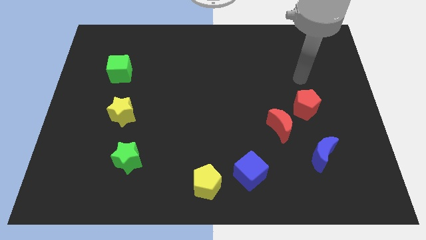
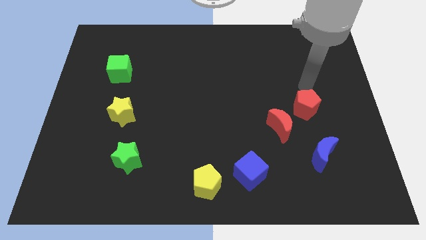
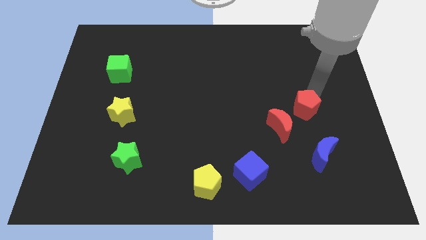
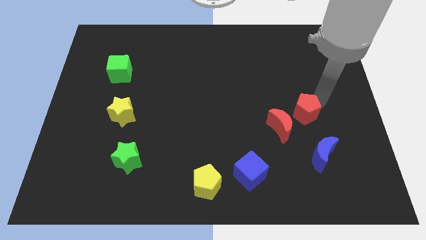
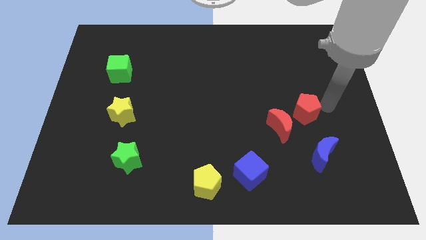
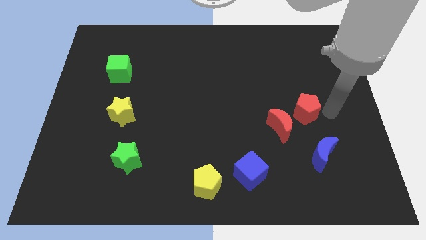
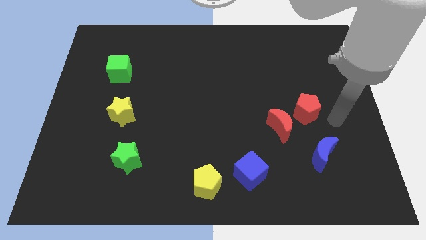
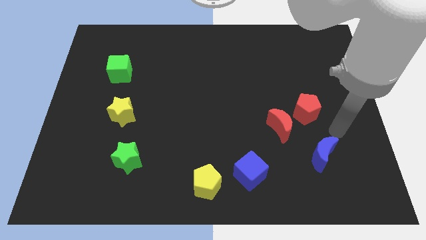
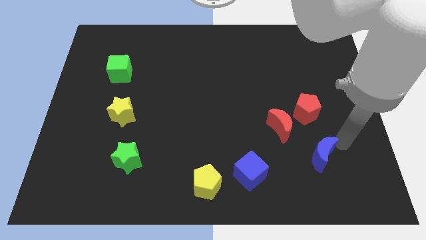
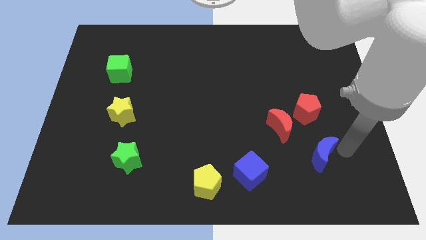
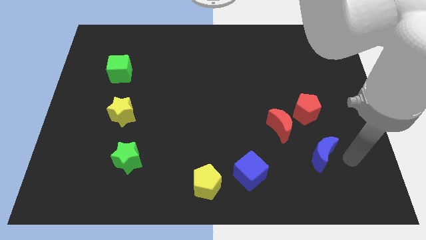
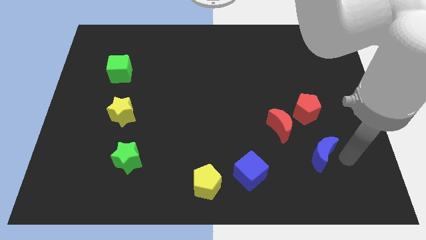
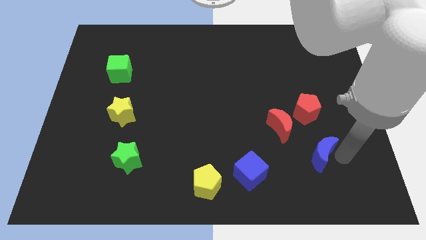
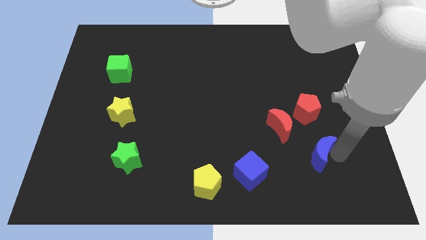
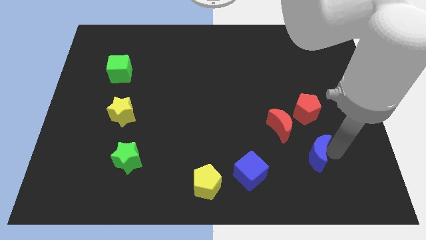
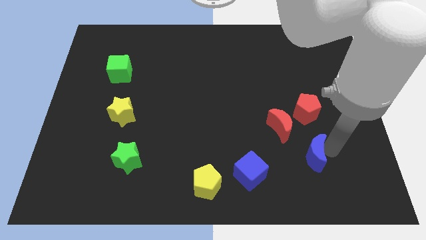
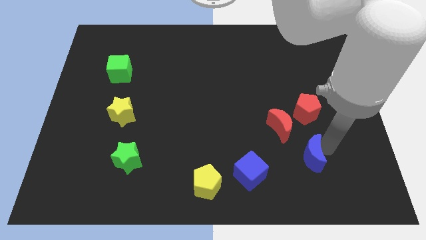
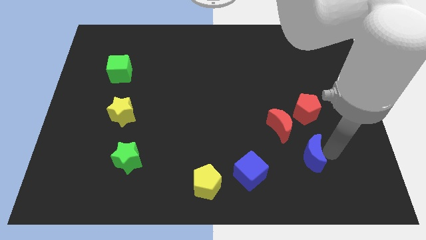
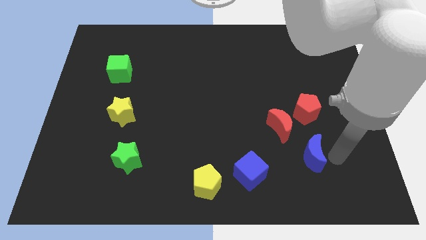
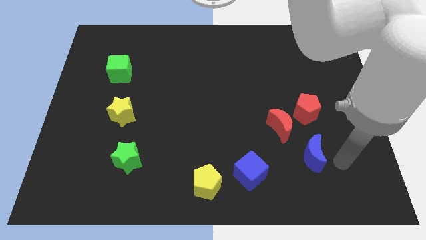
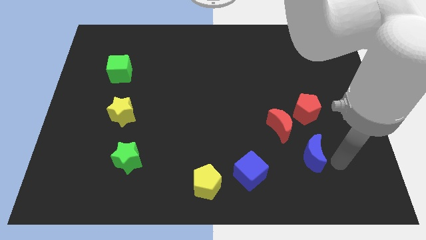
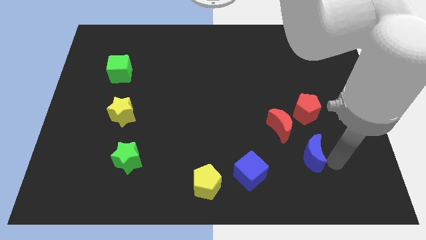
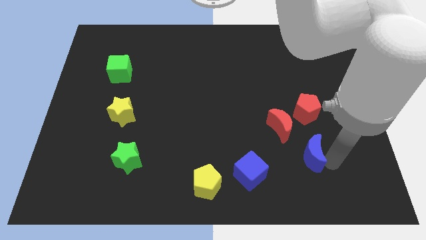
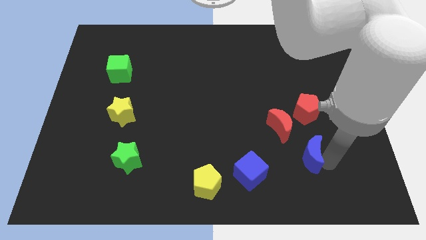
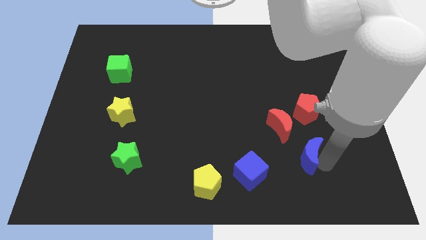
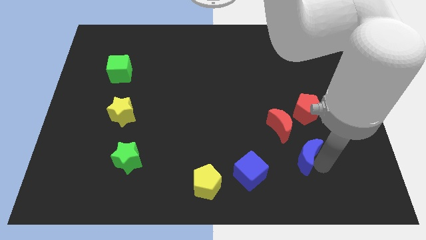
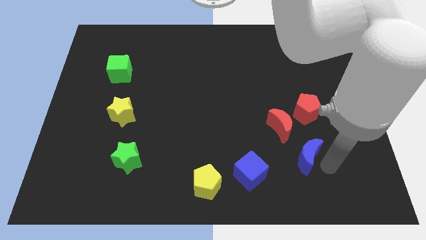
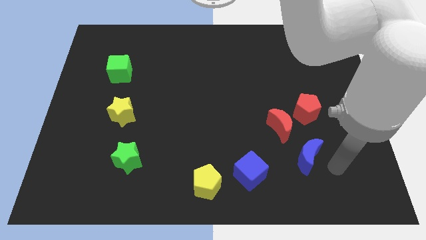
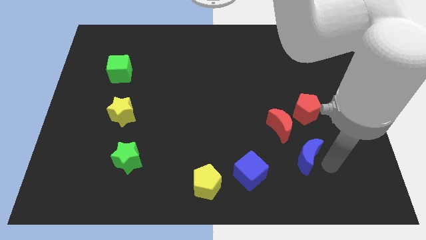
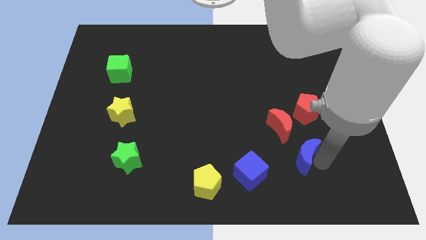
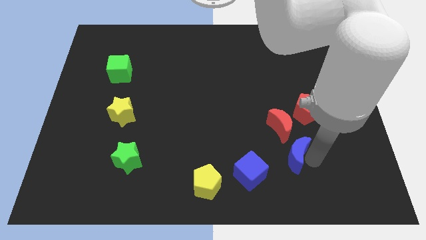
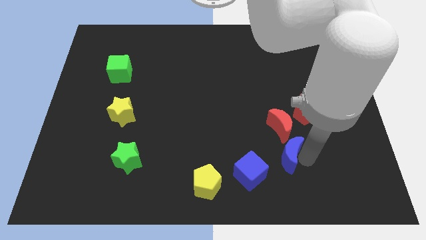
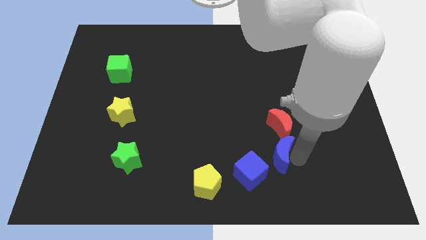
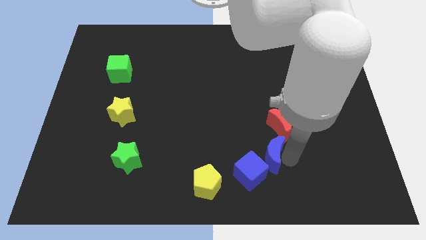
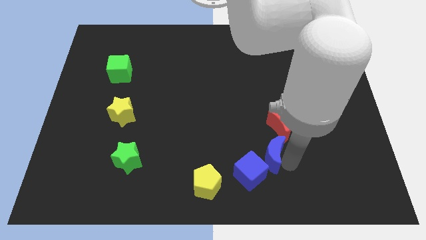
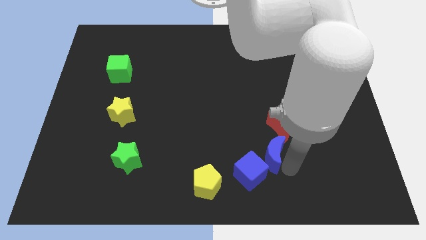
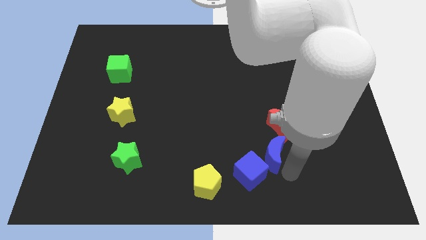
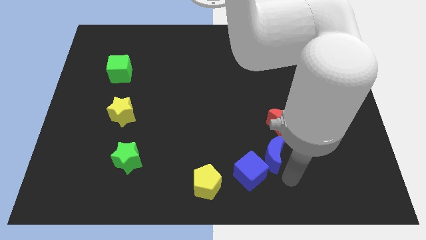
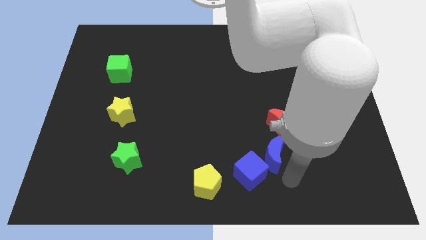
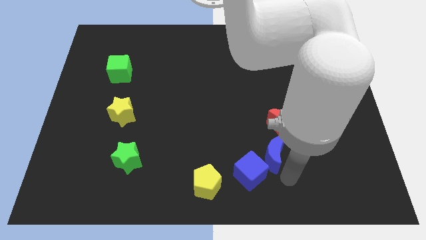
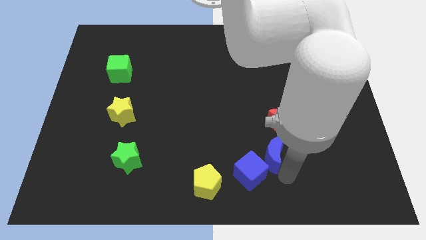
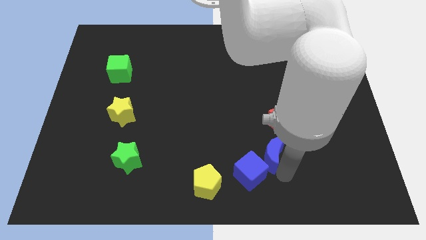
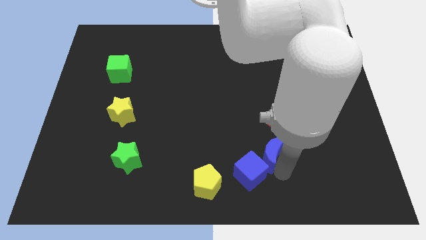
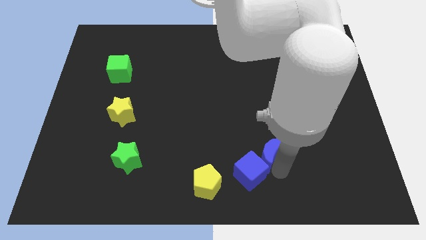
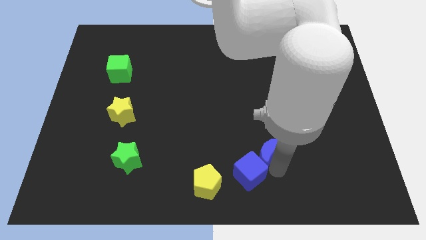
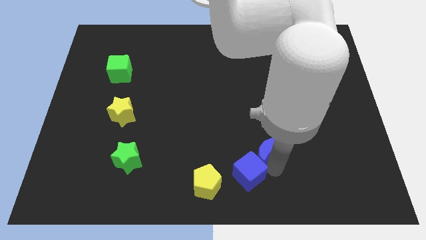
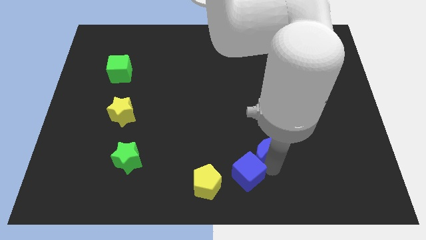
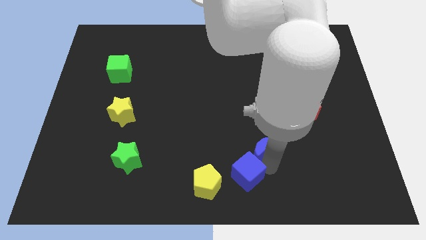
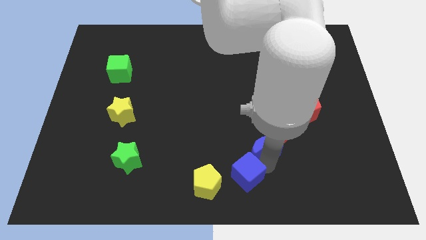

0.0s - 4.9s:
push the blue moon upwards and to the left a little

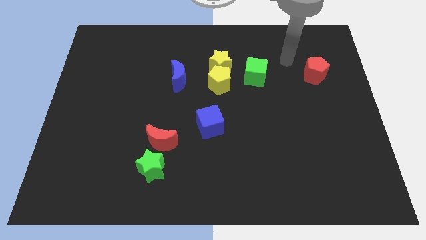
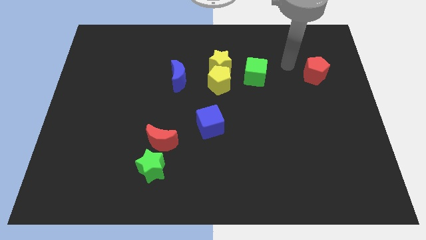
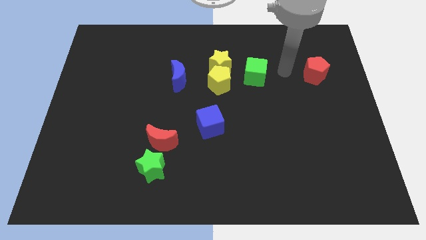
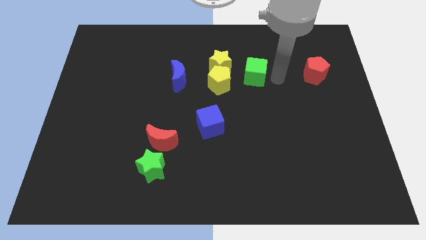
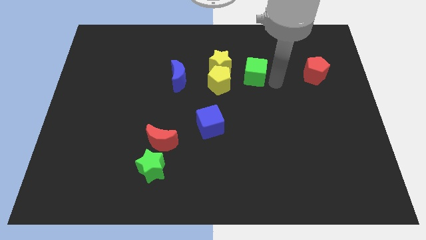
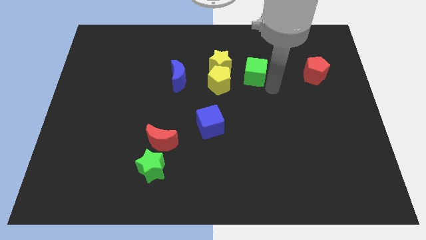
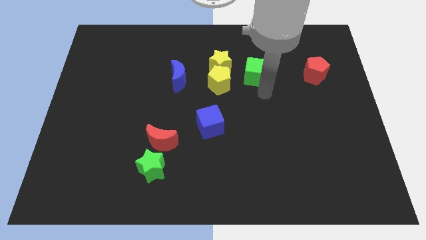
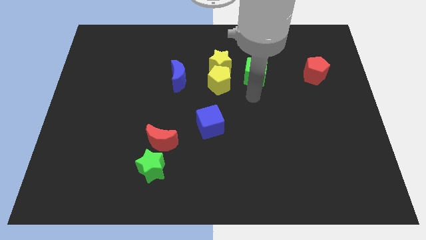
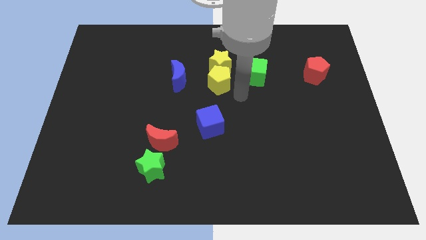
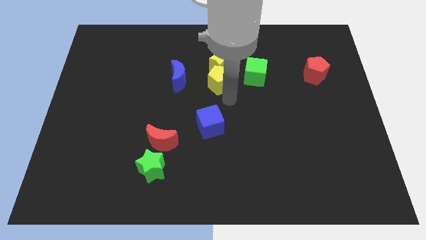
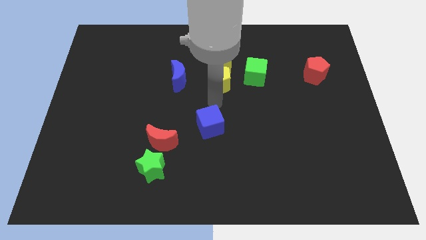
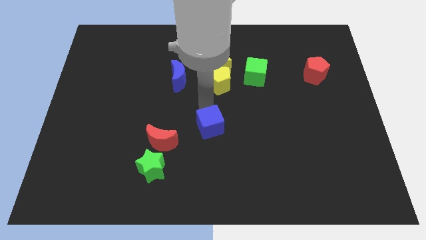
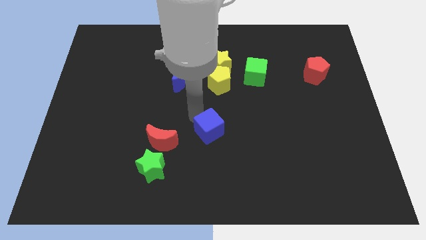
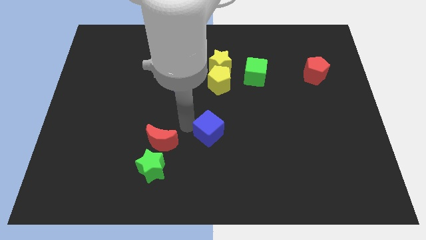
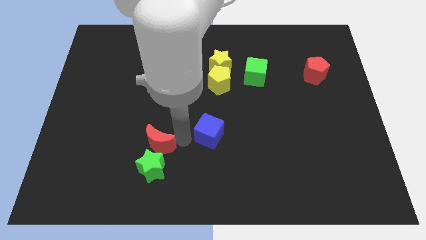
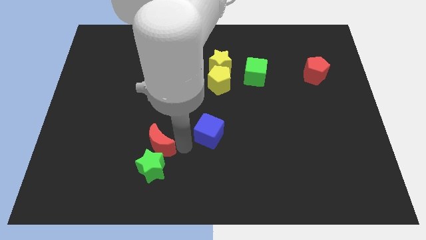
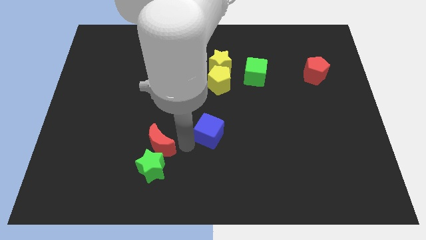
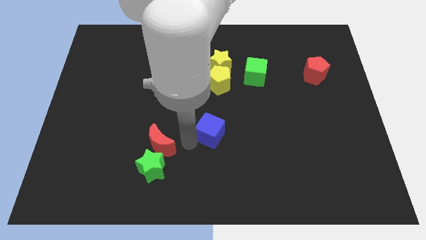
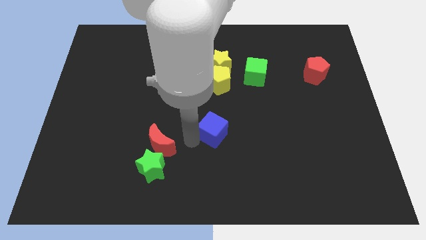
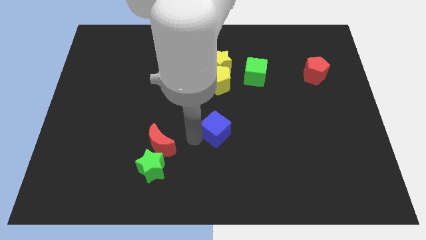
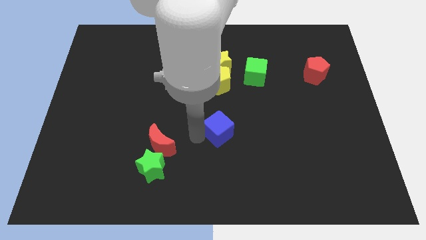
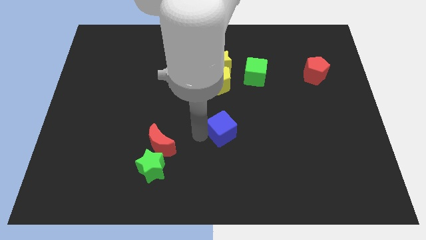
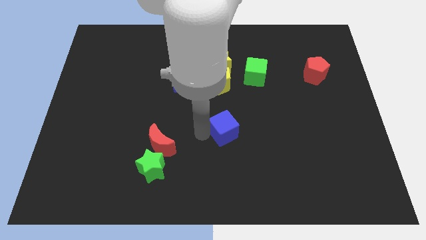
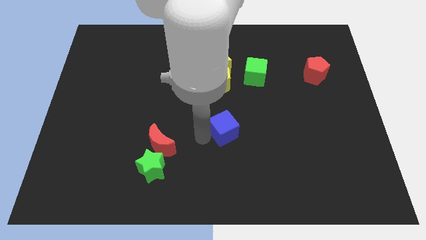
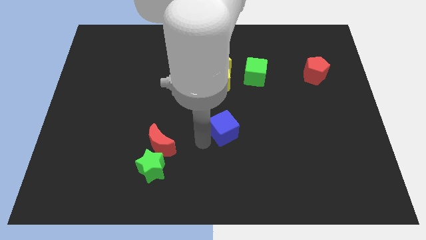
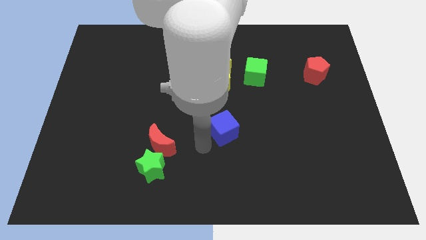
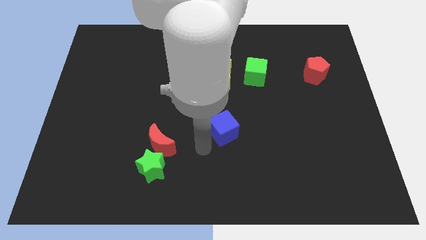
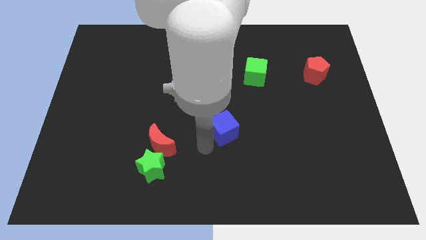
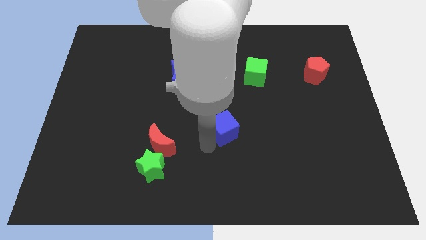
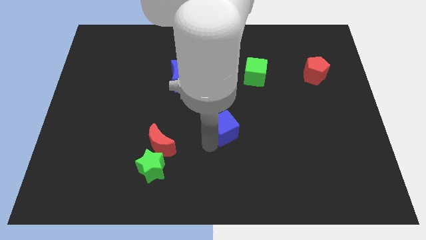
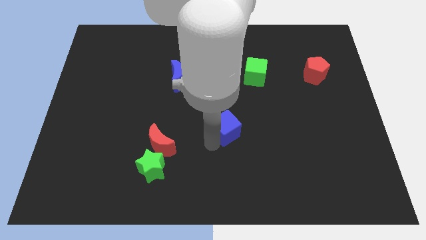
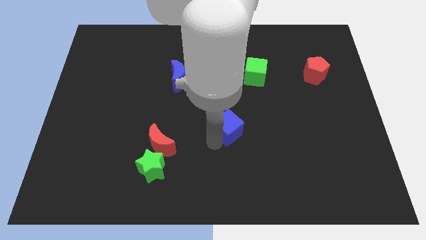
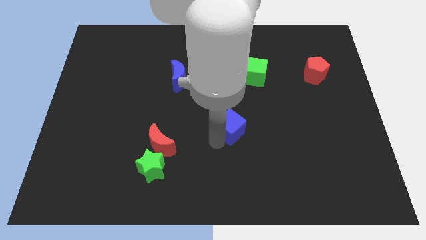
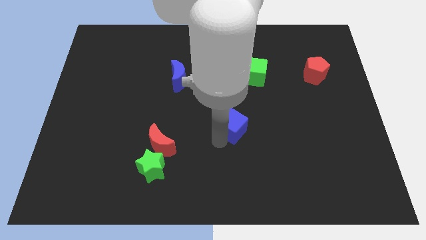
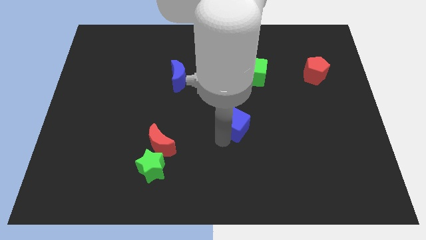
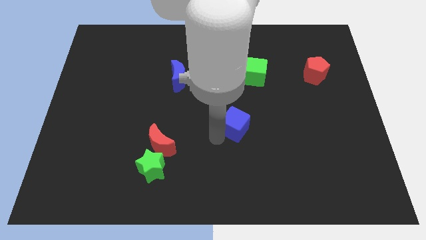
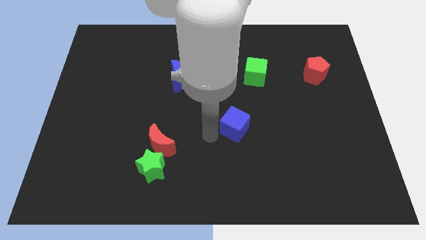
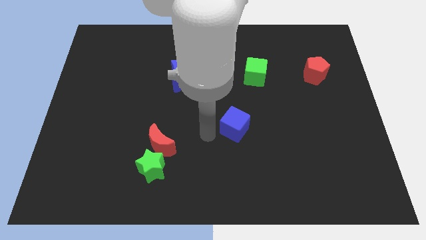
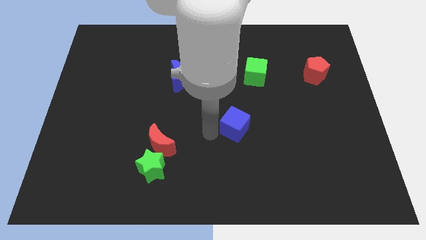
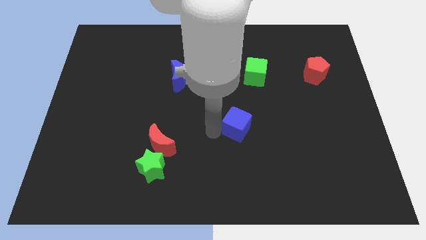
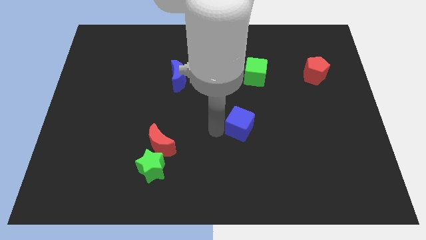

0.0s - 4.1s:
slide the blue cube a little right
